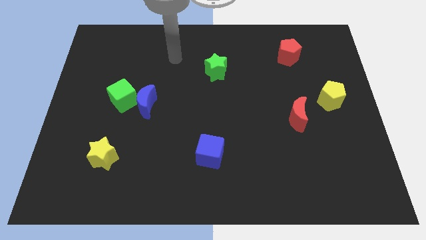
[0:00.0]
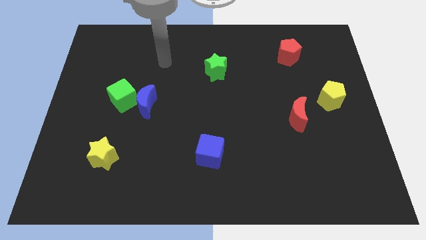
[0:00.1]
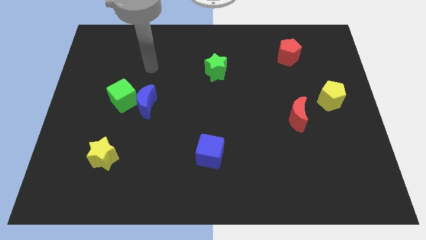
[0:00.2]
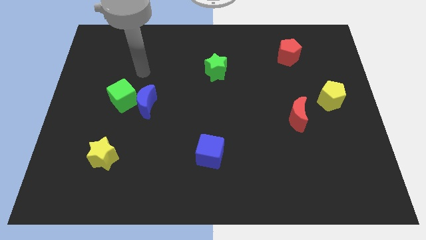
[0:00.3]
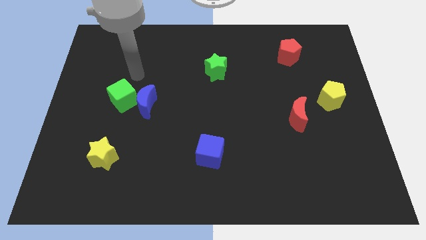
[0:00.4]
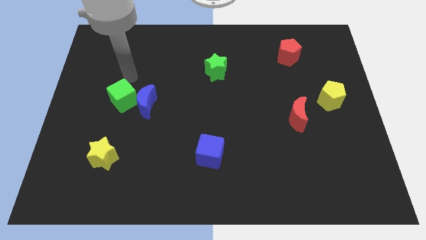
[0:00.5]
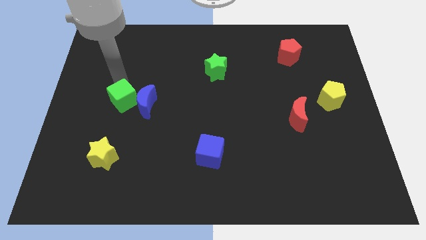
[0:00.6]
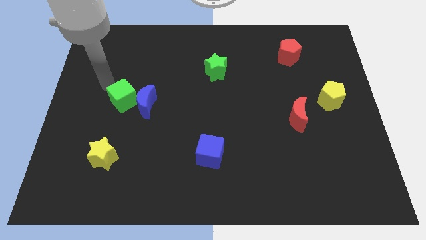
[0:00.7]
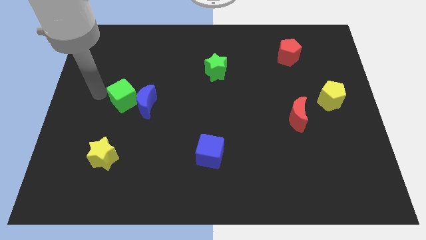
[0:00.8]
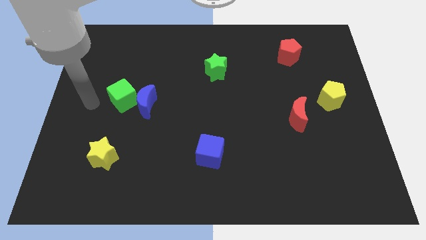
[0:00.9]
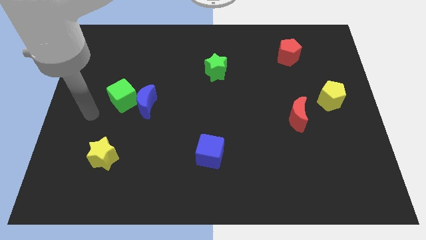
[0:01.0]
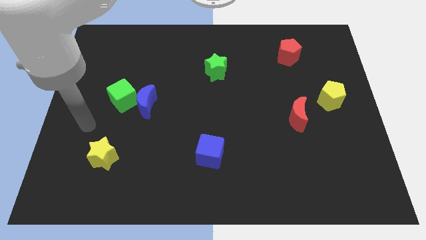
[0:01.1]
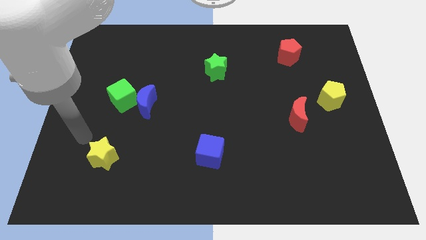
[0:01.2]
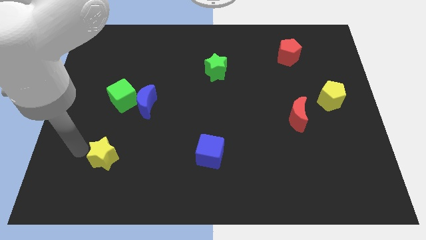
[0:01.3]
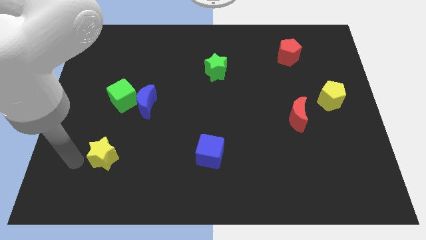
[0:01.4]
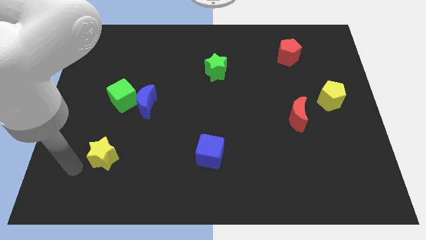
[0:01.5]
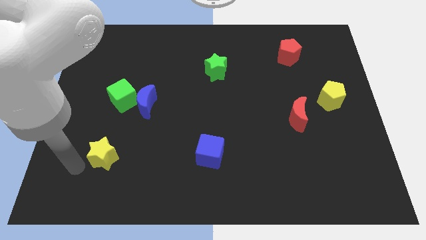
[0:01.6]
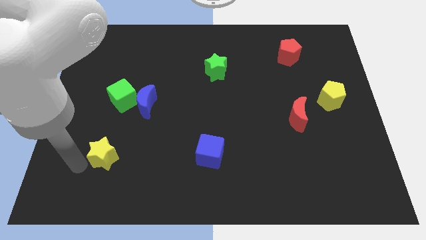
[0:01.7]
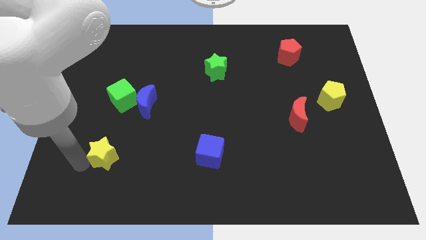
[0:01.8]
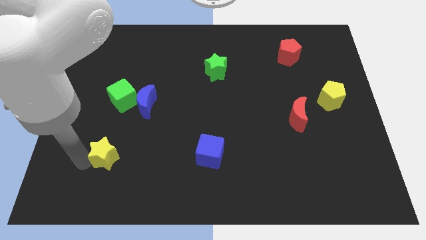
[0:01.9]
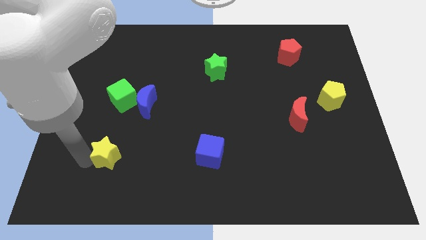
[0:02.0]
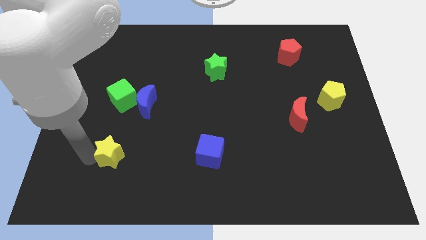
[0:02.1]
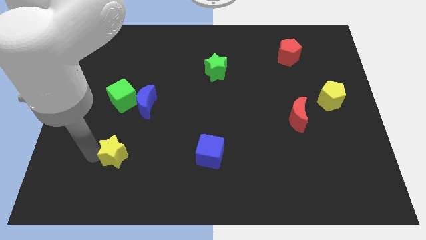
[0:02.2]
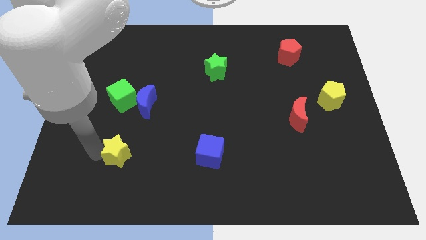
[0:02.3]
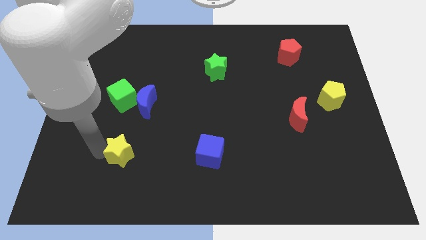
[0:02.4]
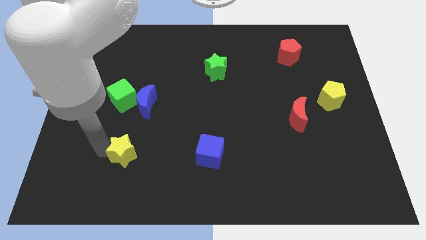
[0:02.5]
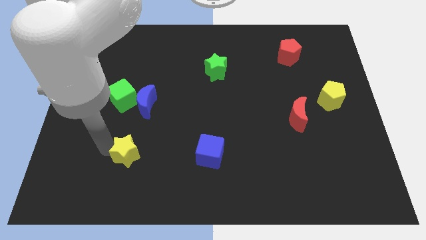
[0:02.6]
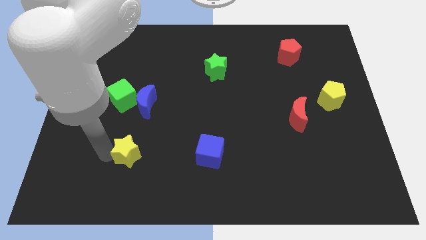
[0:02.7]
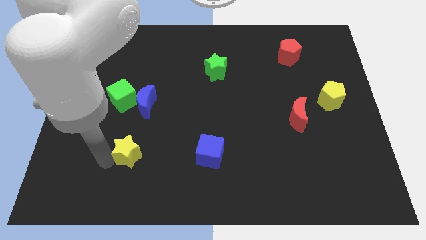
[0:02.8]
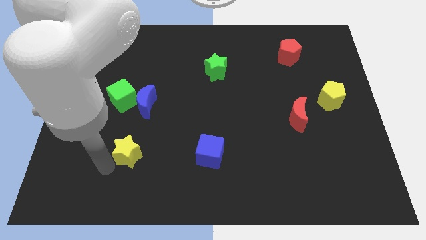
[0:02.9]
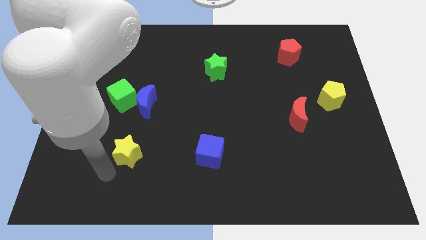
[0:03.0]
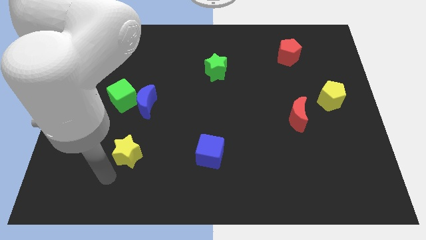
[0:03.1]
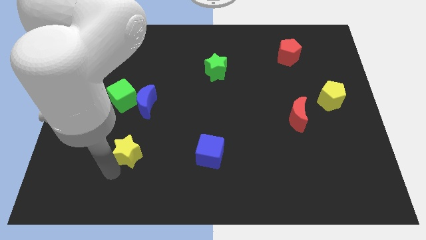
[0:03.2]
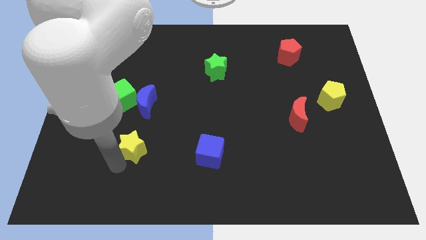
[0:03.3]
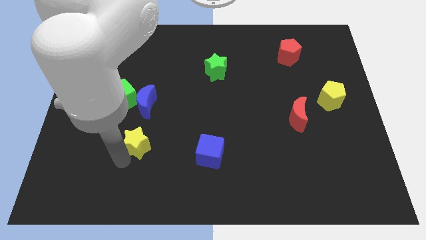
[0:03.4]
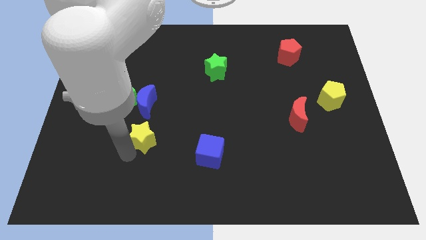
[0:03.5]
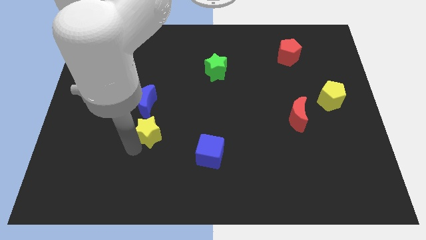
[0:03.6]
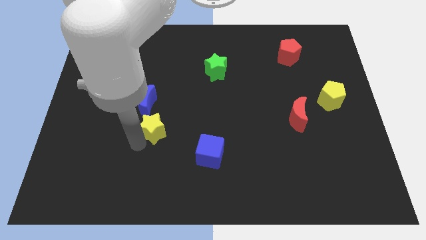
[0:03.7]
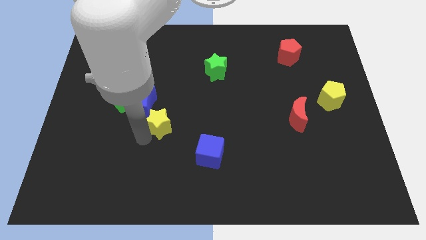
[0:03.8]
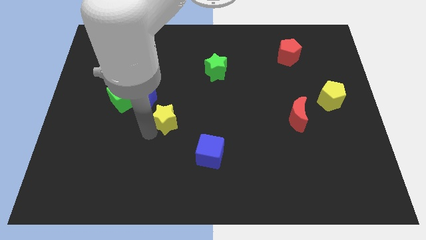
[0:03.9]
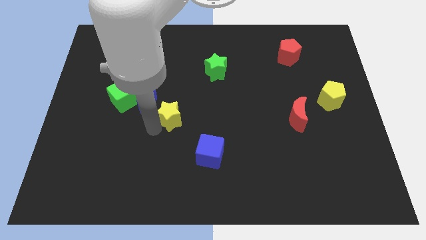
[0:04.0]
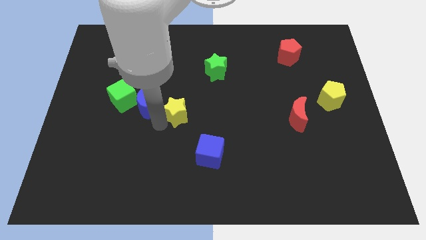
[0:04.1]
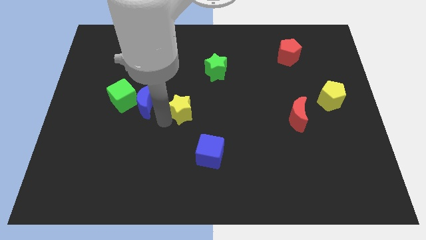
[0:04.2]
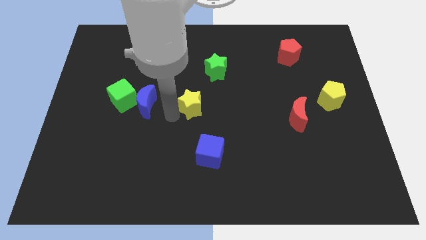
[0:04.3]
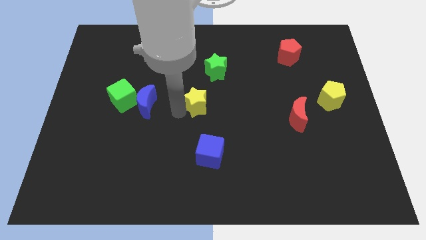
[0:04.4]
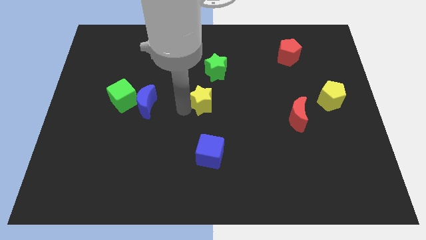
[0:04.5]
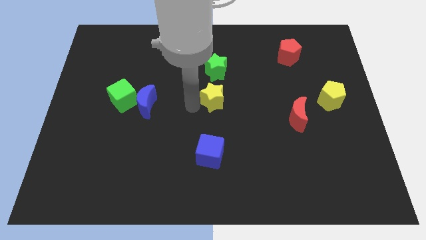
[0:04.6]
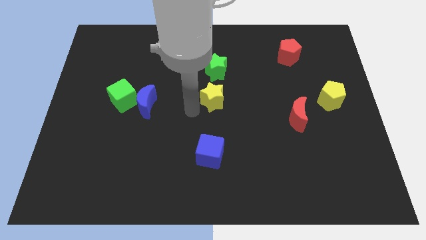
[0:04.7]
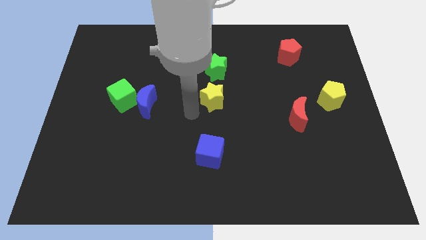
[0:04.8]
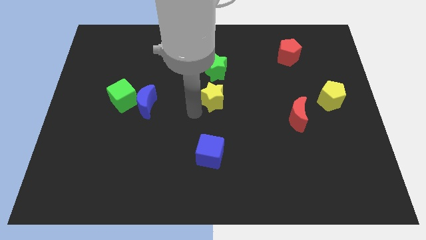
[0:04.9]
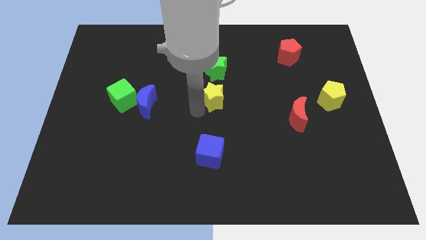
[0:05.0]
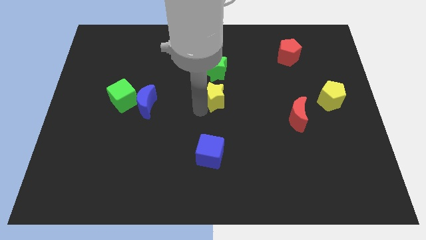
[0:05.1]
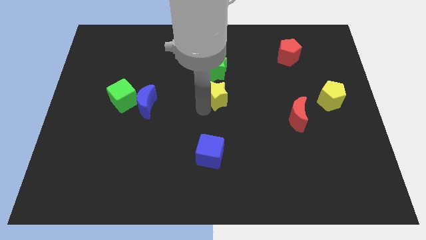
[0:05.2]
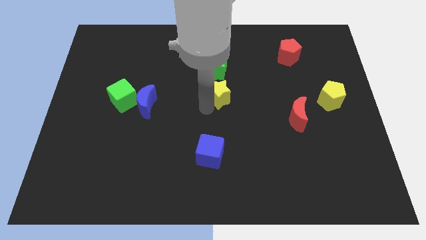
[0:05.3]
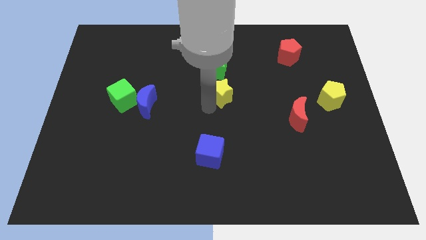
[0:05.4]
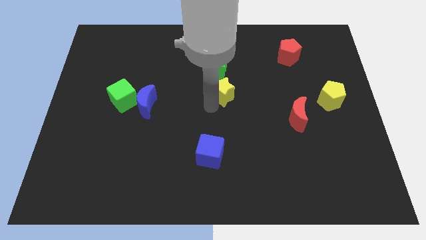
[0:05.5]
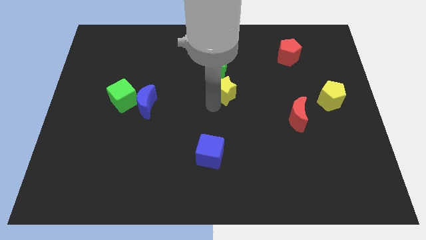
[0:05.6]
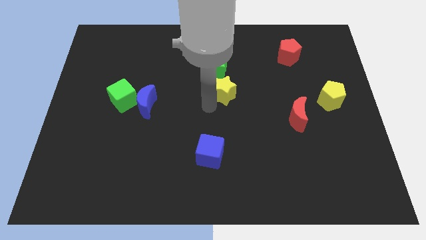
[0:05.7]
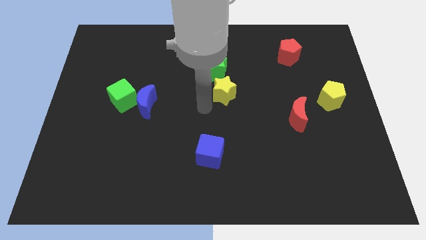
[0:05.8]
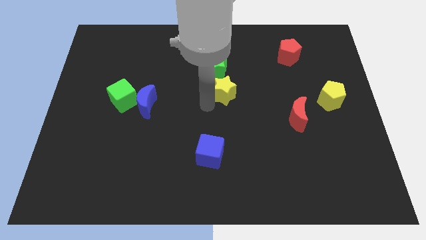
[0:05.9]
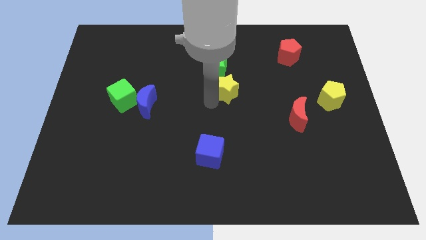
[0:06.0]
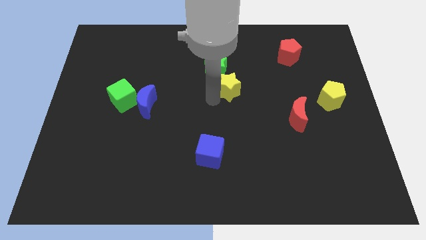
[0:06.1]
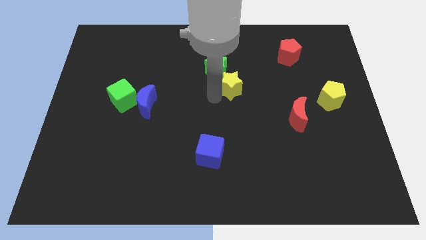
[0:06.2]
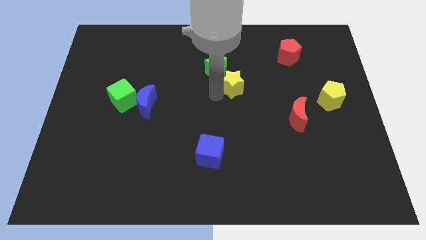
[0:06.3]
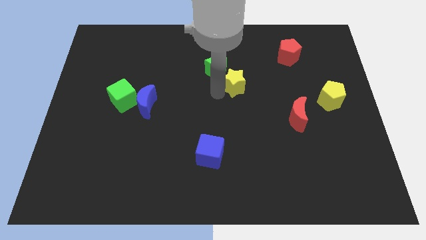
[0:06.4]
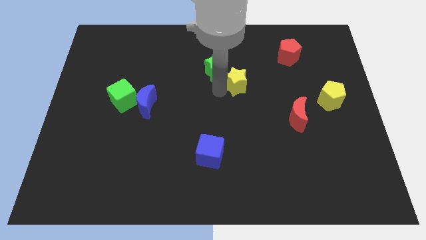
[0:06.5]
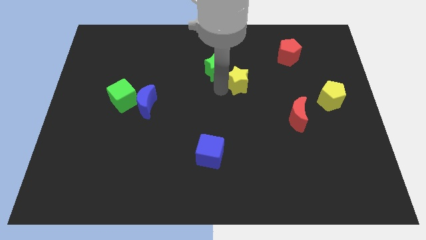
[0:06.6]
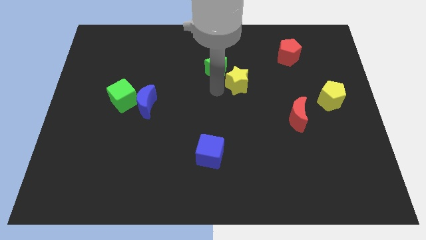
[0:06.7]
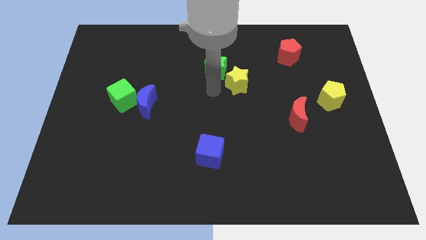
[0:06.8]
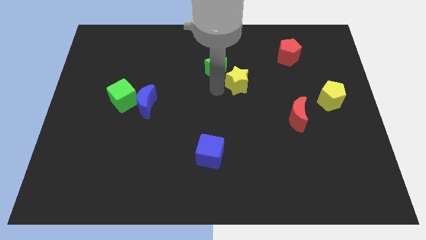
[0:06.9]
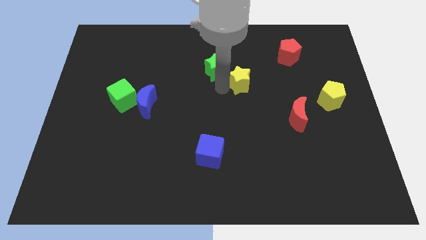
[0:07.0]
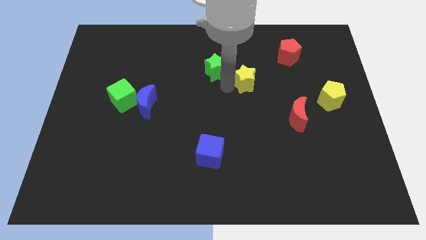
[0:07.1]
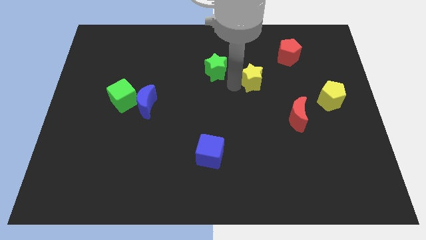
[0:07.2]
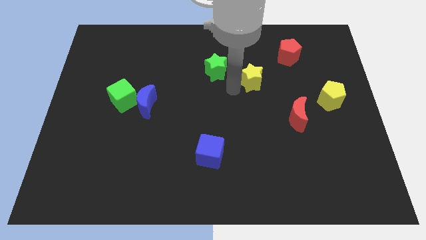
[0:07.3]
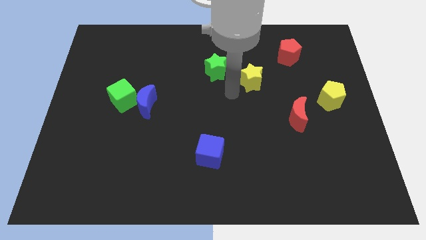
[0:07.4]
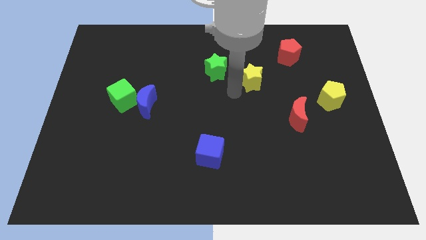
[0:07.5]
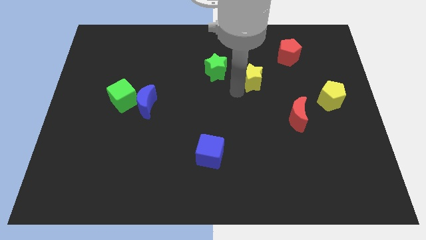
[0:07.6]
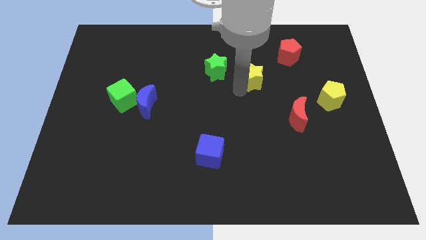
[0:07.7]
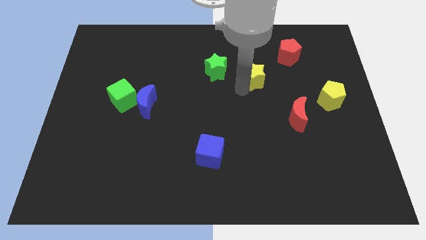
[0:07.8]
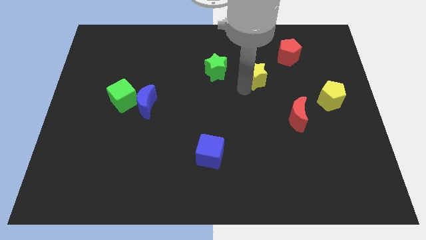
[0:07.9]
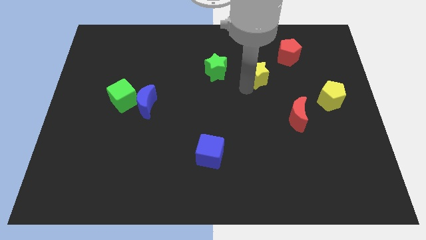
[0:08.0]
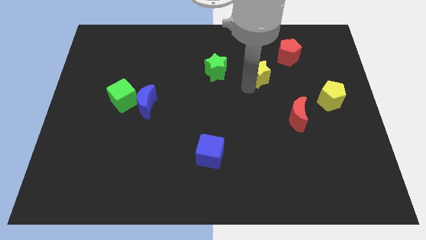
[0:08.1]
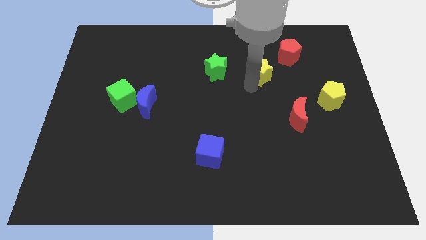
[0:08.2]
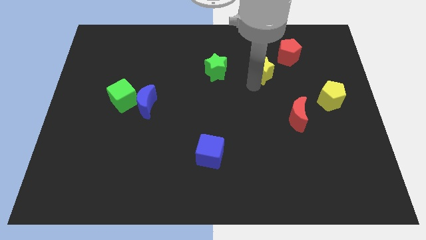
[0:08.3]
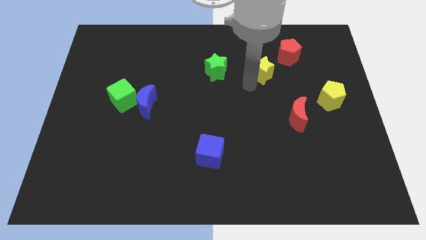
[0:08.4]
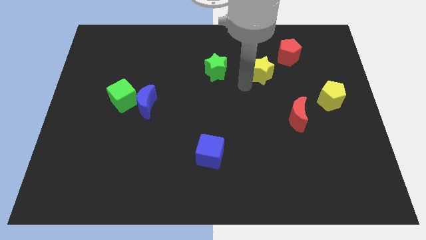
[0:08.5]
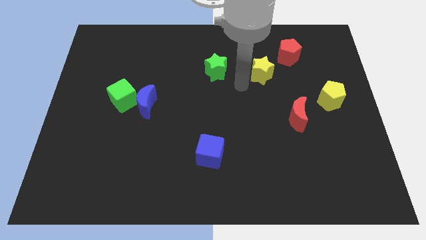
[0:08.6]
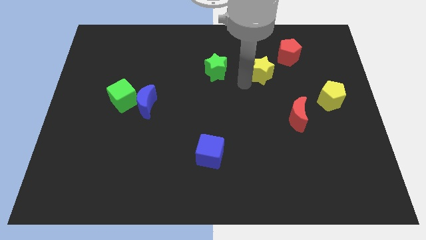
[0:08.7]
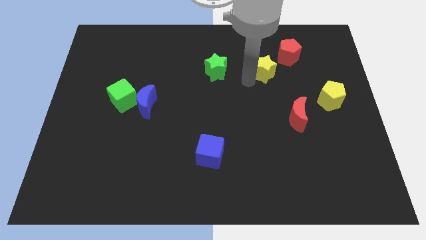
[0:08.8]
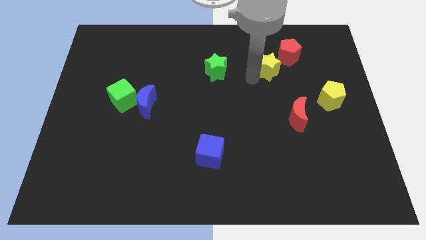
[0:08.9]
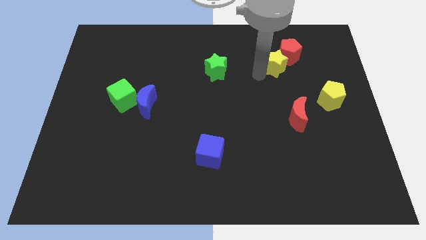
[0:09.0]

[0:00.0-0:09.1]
move the yellow star close to the red pentagon
